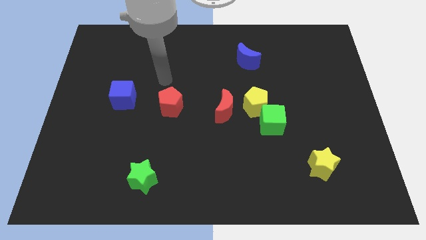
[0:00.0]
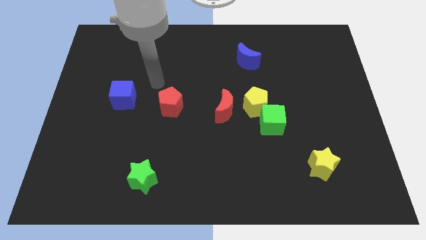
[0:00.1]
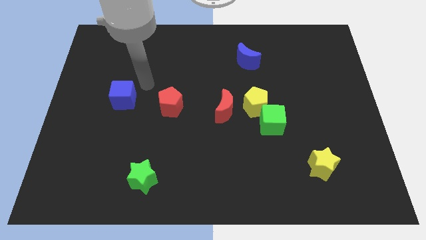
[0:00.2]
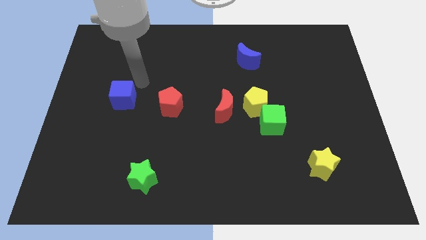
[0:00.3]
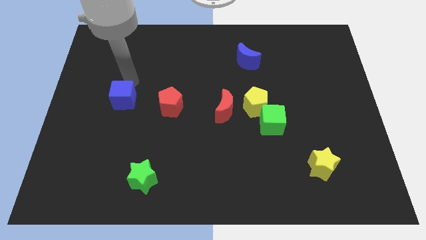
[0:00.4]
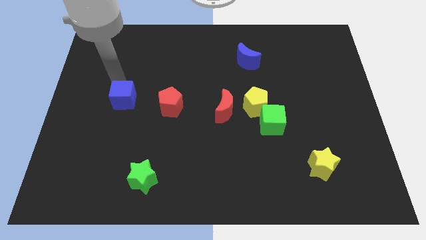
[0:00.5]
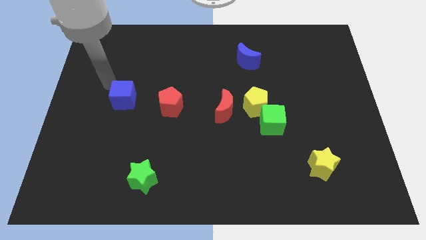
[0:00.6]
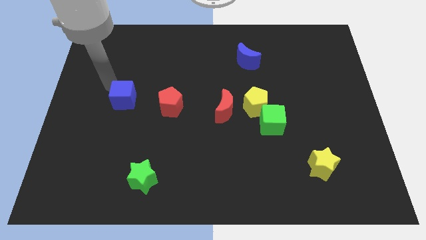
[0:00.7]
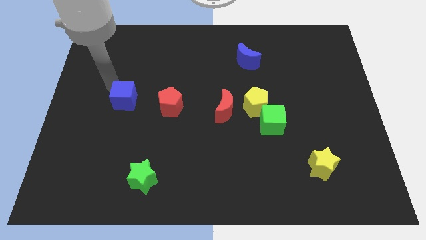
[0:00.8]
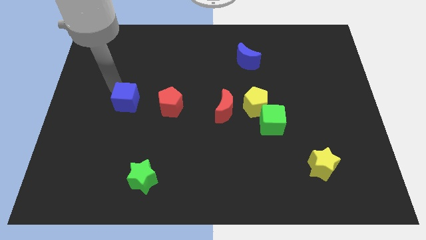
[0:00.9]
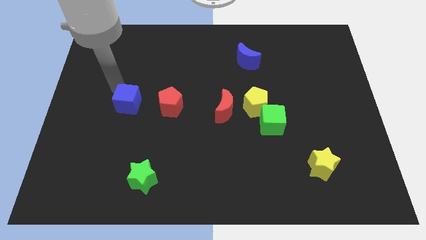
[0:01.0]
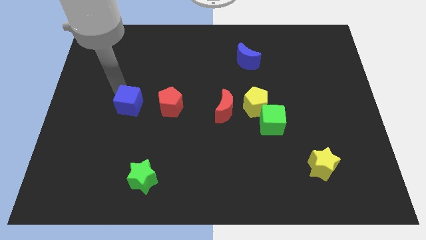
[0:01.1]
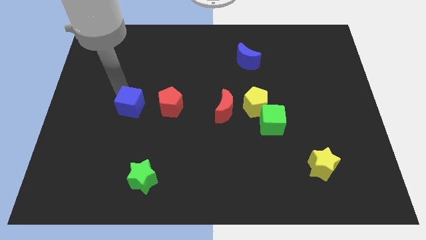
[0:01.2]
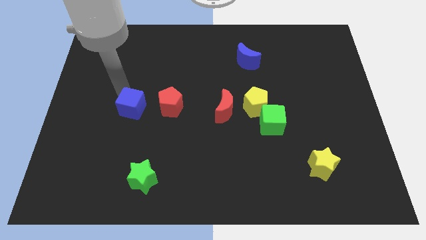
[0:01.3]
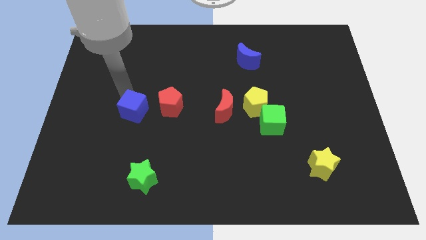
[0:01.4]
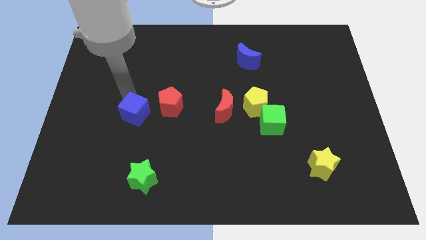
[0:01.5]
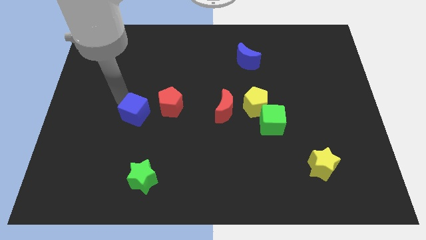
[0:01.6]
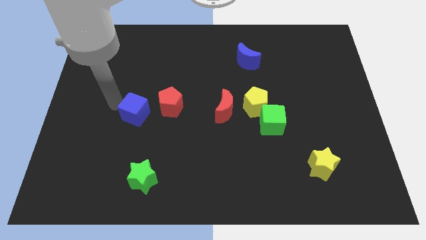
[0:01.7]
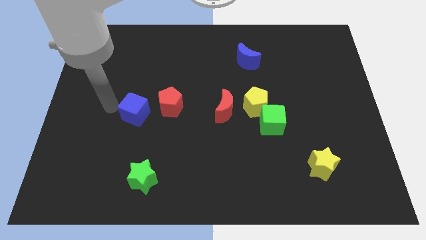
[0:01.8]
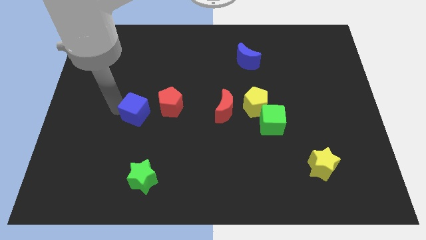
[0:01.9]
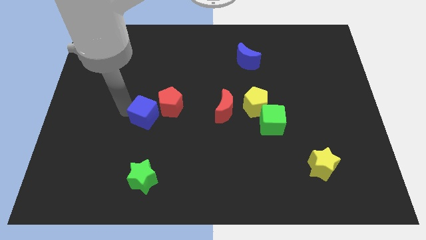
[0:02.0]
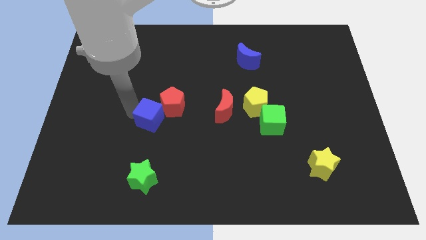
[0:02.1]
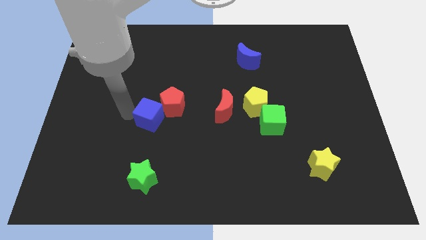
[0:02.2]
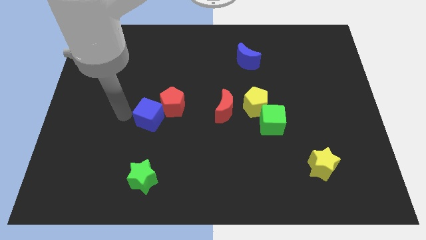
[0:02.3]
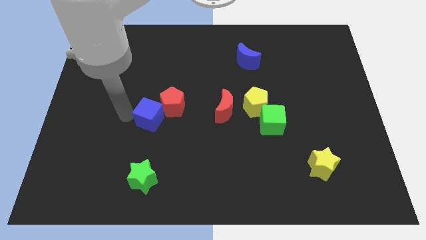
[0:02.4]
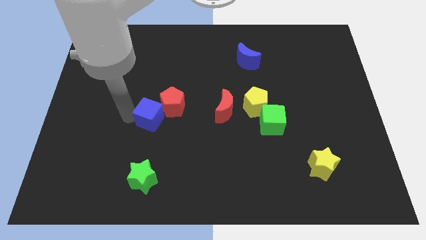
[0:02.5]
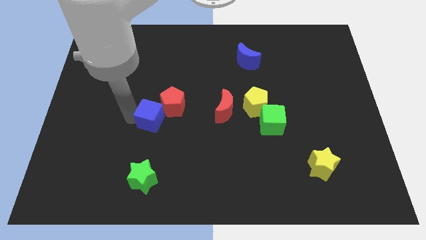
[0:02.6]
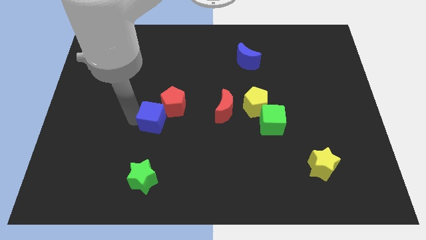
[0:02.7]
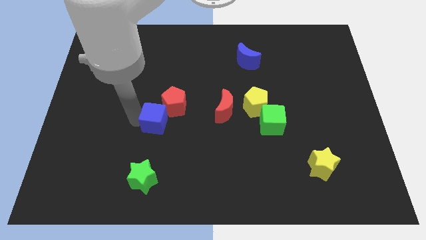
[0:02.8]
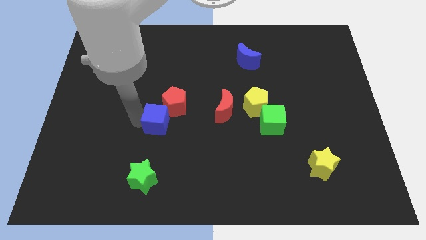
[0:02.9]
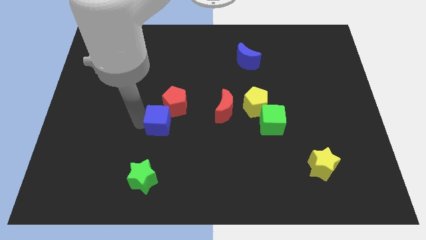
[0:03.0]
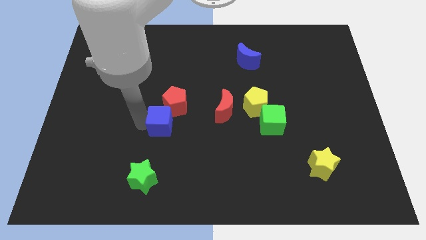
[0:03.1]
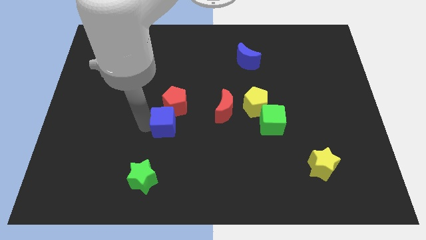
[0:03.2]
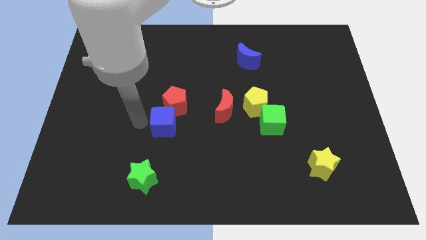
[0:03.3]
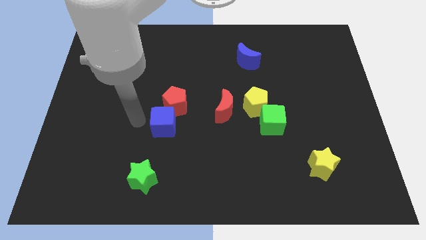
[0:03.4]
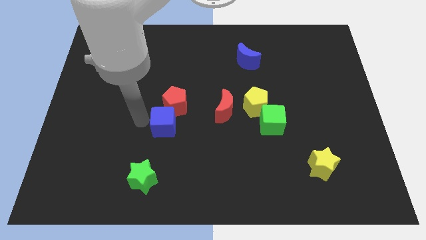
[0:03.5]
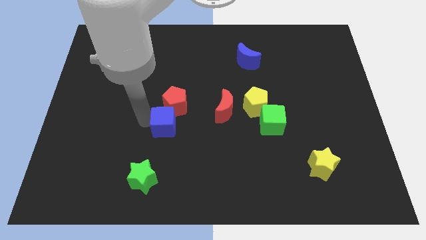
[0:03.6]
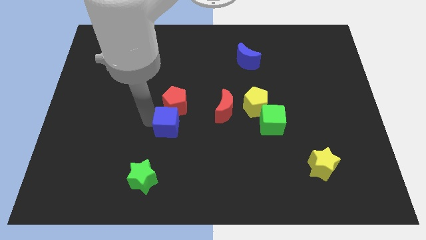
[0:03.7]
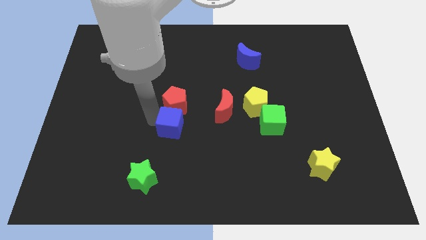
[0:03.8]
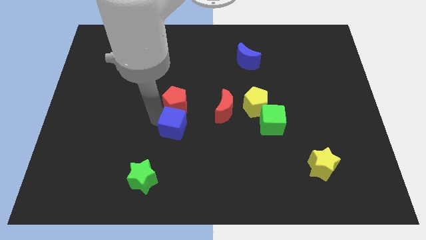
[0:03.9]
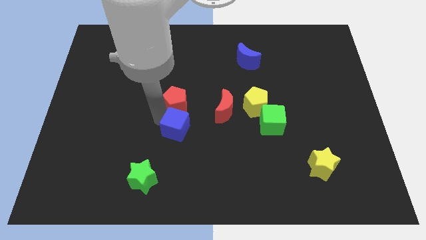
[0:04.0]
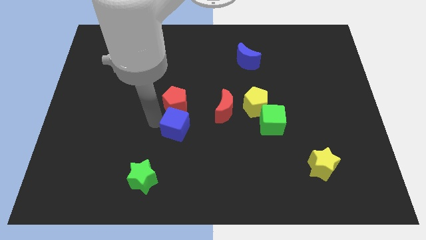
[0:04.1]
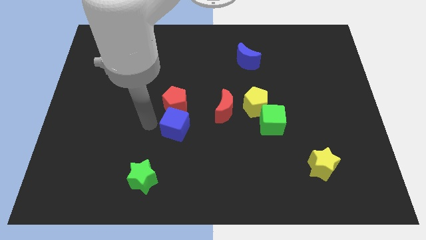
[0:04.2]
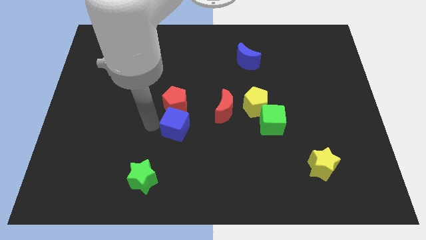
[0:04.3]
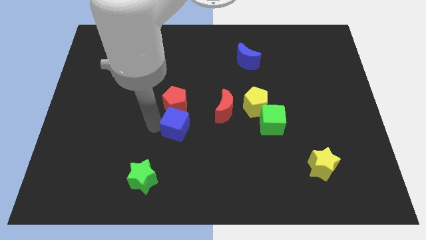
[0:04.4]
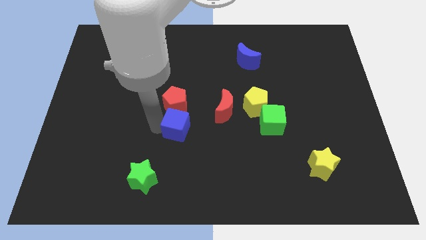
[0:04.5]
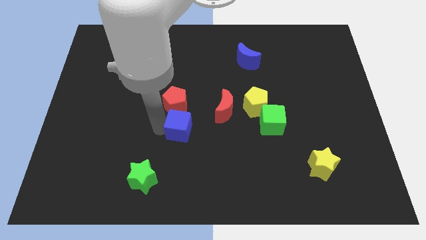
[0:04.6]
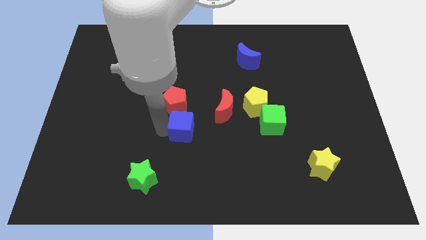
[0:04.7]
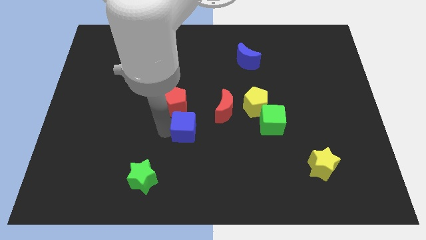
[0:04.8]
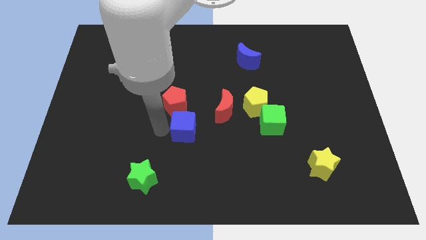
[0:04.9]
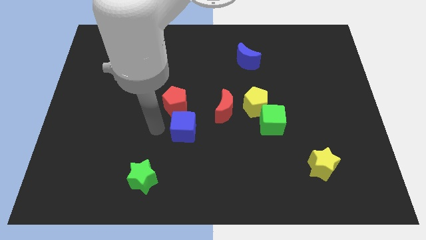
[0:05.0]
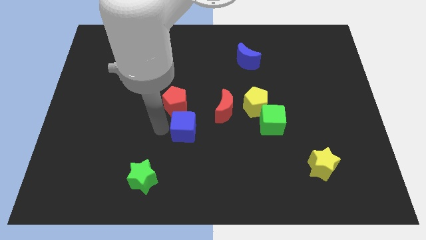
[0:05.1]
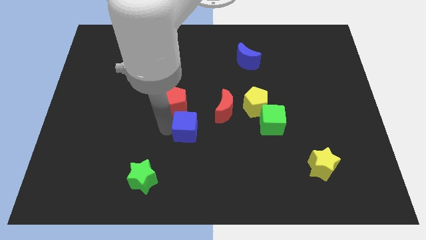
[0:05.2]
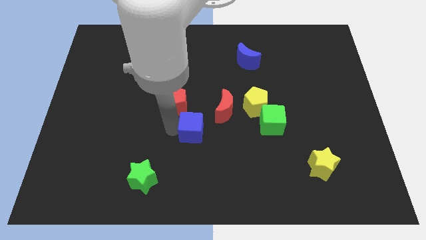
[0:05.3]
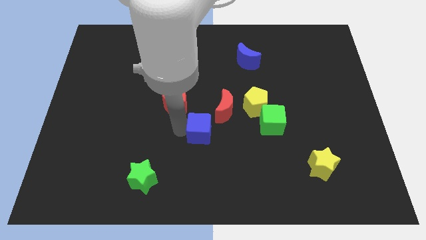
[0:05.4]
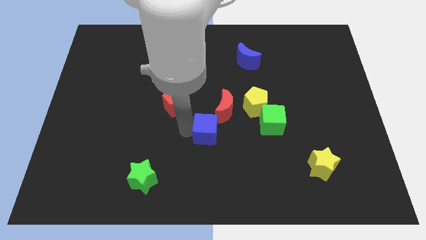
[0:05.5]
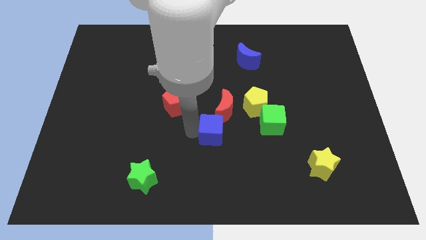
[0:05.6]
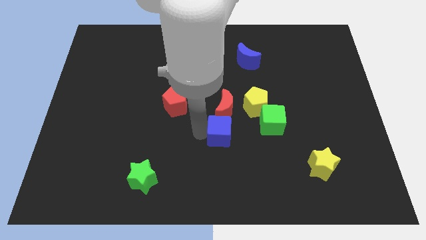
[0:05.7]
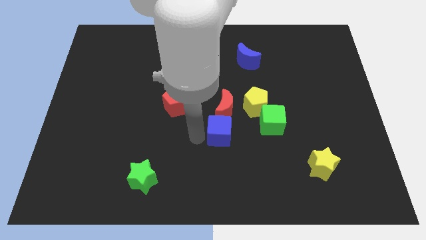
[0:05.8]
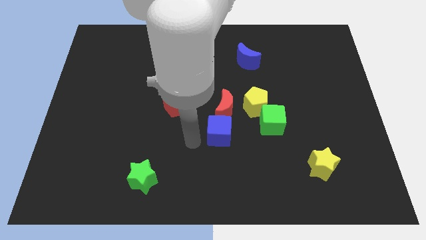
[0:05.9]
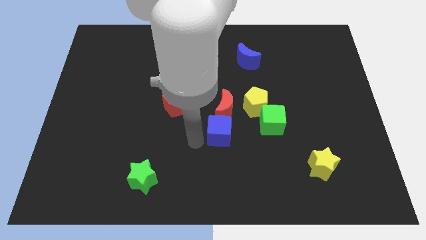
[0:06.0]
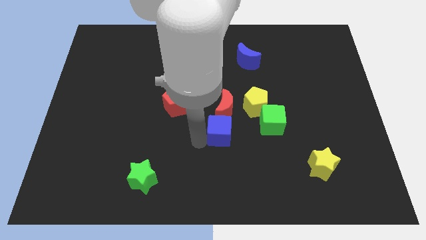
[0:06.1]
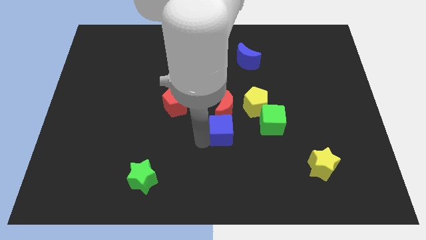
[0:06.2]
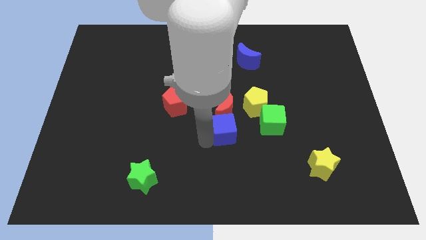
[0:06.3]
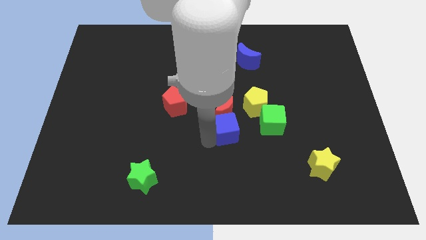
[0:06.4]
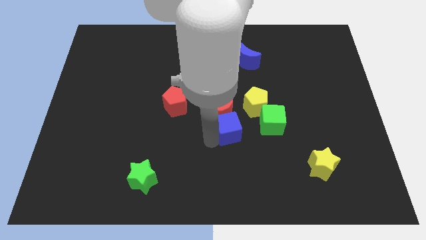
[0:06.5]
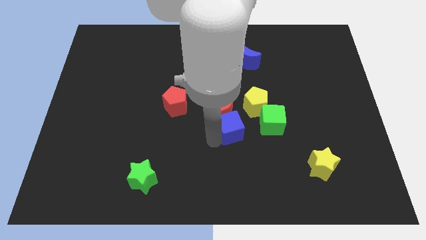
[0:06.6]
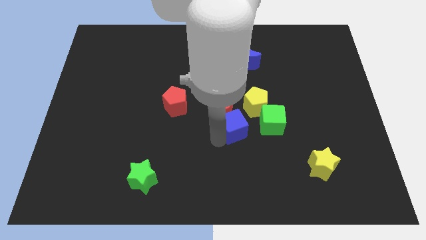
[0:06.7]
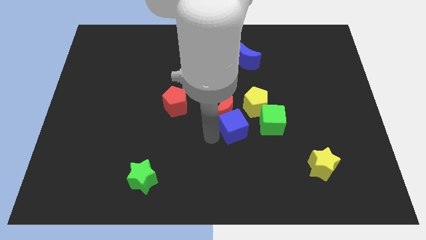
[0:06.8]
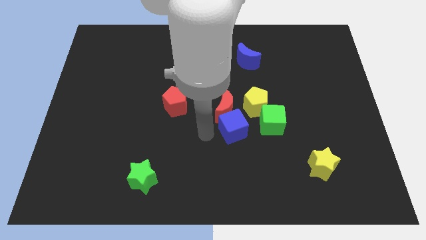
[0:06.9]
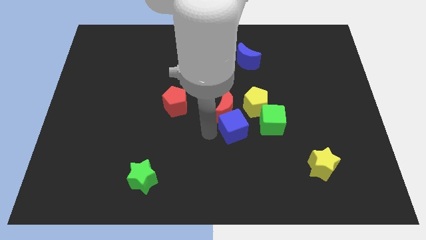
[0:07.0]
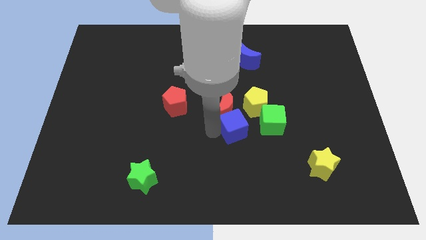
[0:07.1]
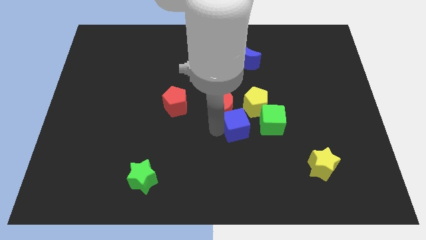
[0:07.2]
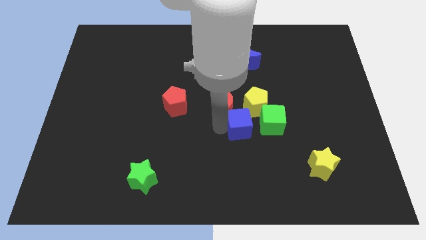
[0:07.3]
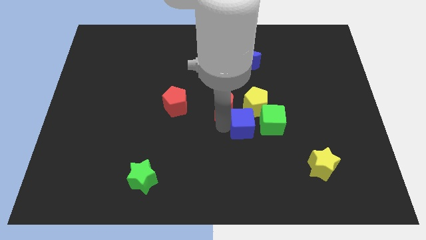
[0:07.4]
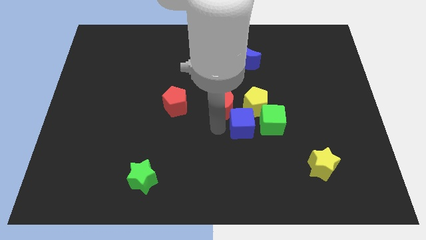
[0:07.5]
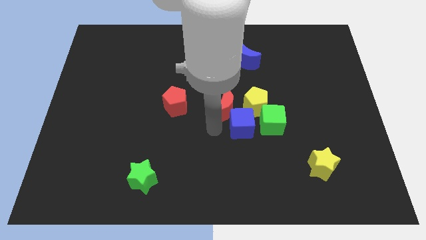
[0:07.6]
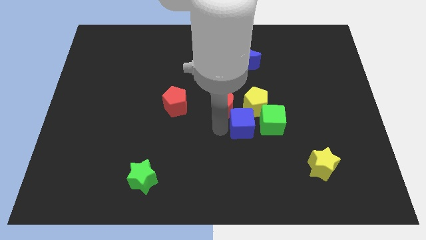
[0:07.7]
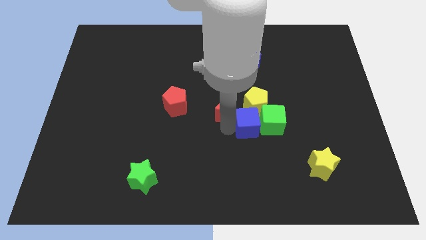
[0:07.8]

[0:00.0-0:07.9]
put the blue cube to the green cube
